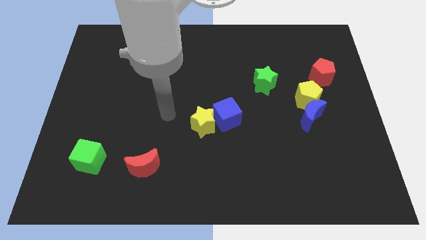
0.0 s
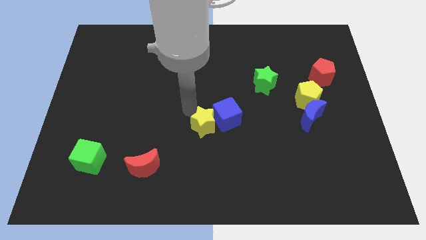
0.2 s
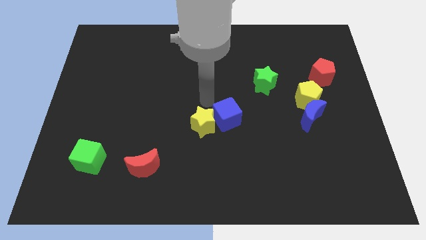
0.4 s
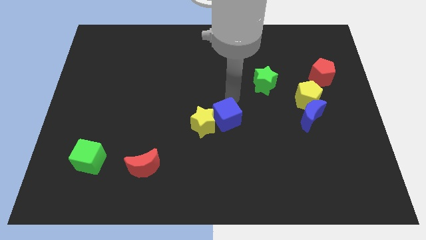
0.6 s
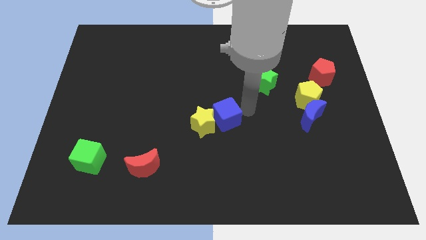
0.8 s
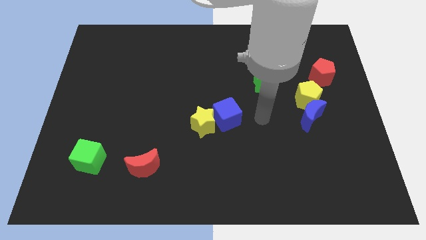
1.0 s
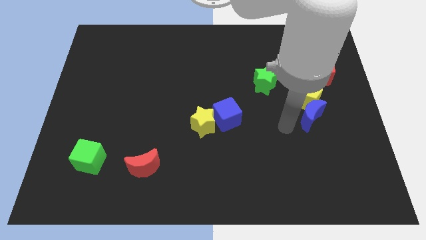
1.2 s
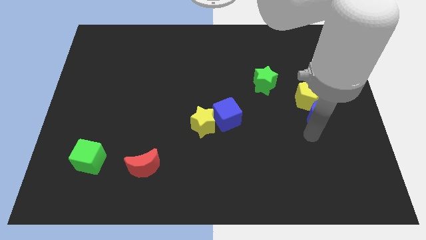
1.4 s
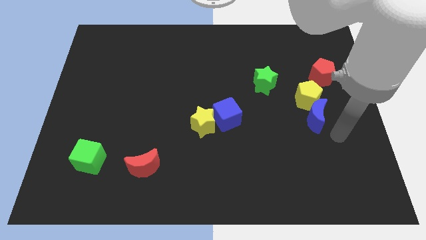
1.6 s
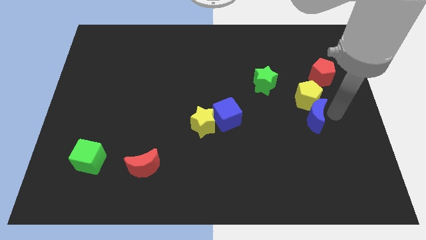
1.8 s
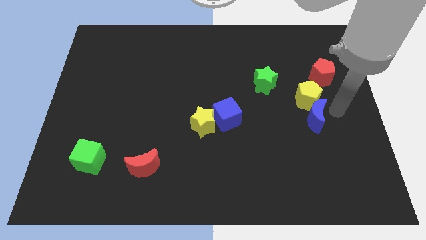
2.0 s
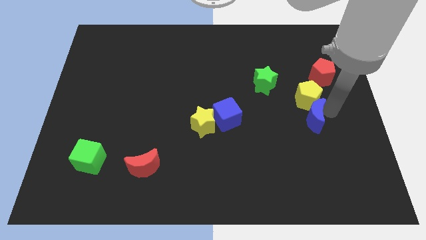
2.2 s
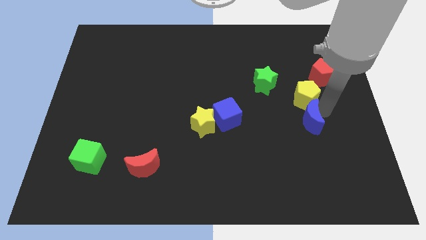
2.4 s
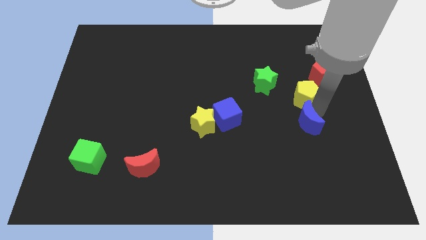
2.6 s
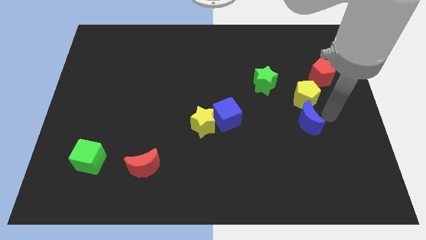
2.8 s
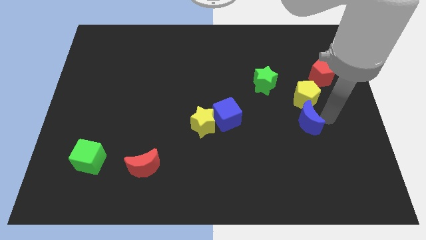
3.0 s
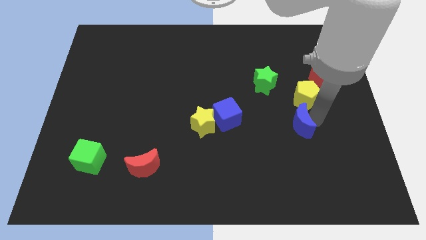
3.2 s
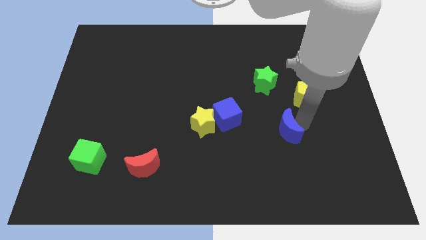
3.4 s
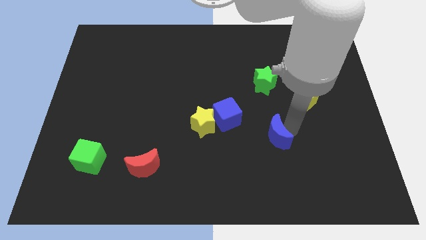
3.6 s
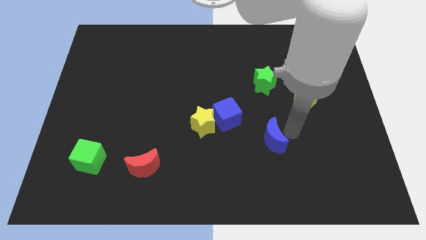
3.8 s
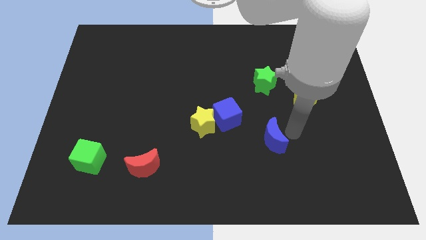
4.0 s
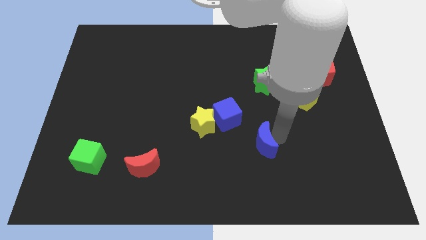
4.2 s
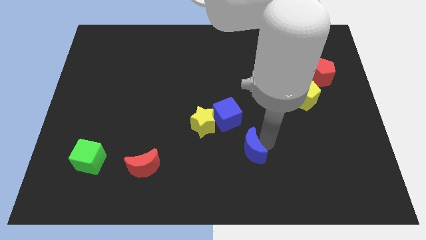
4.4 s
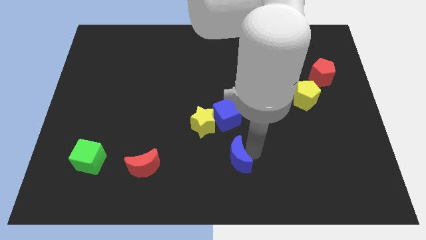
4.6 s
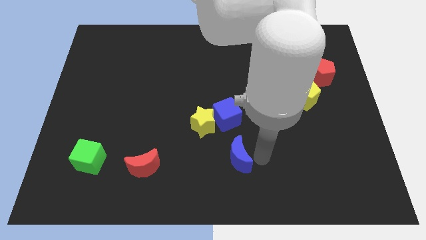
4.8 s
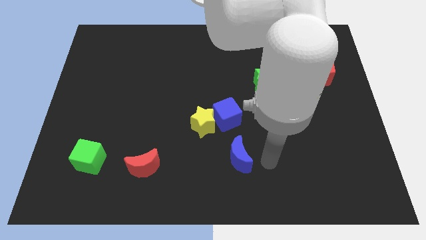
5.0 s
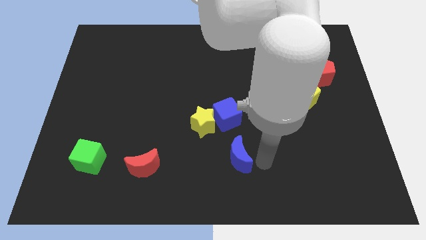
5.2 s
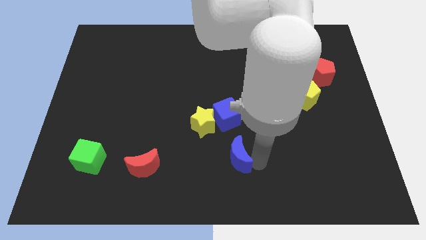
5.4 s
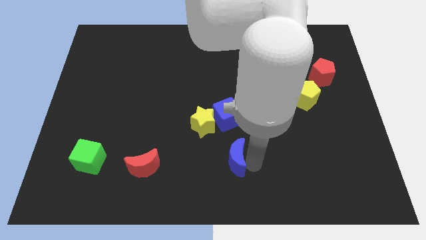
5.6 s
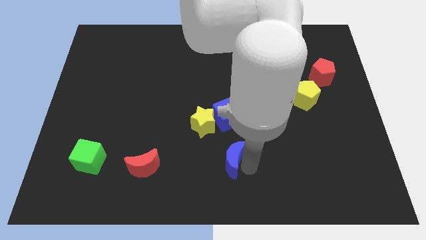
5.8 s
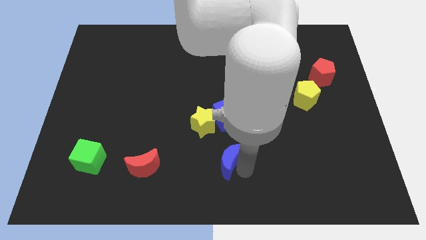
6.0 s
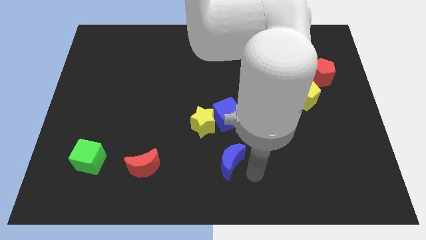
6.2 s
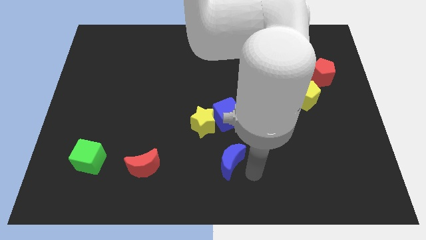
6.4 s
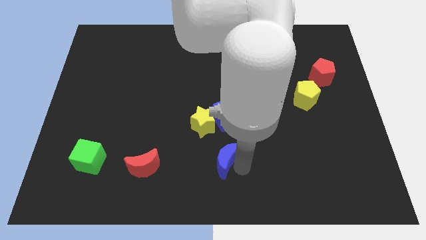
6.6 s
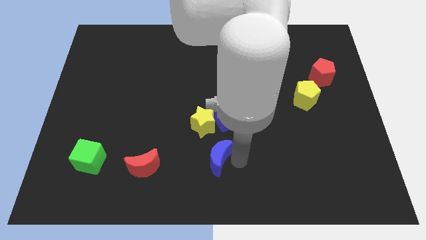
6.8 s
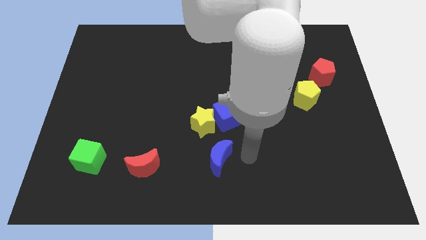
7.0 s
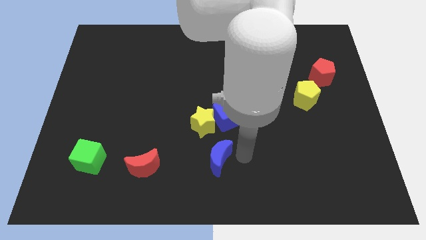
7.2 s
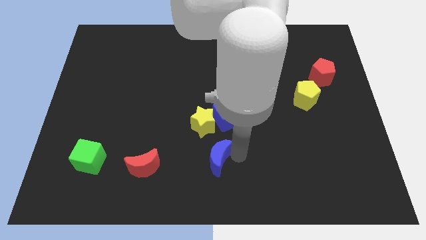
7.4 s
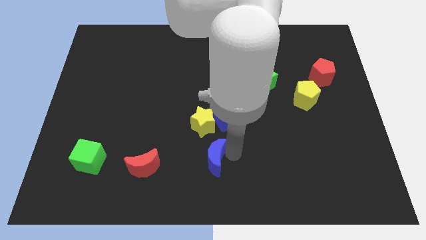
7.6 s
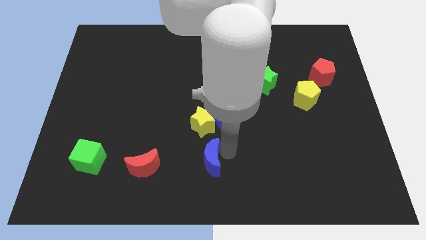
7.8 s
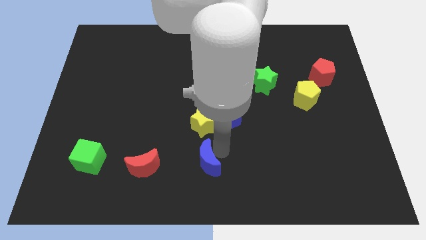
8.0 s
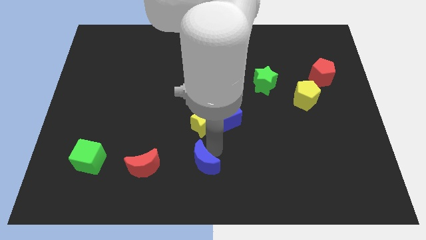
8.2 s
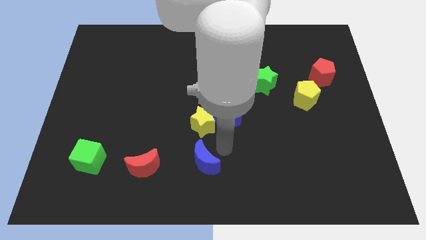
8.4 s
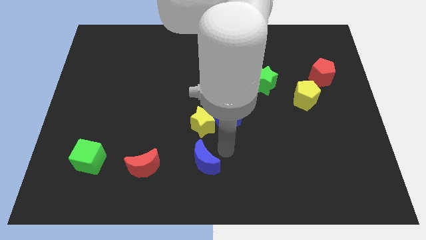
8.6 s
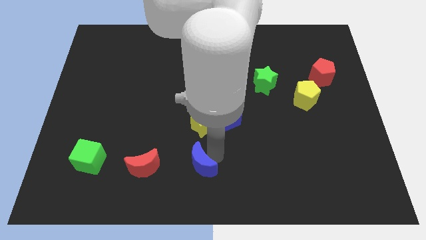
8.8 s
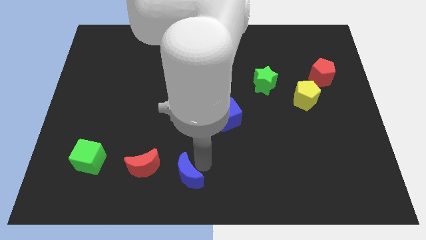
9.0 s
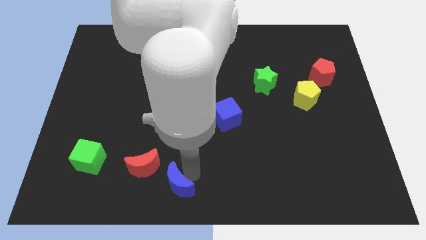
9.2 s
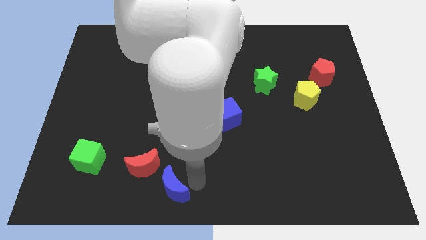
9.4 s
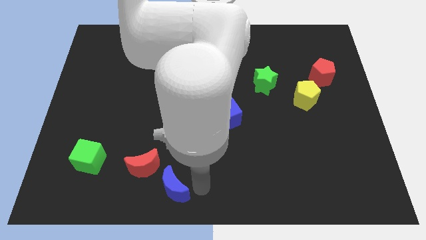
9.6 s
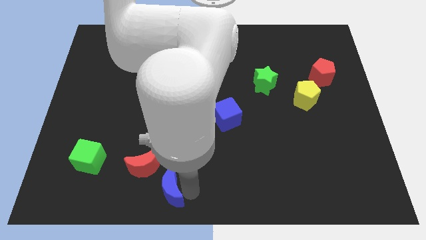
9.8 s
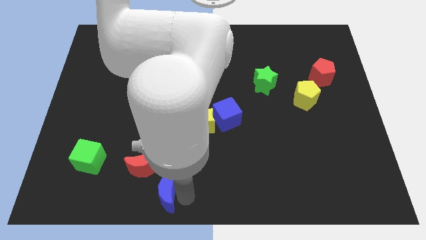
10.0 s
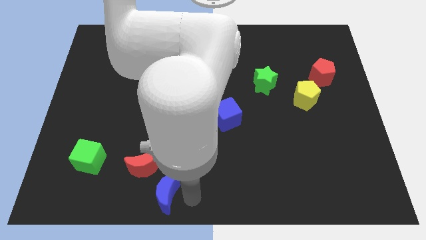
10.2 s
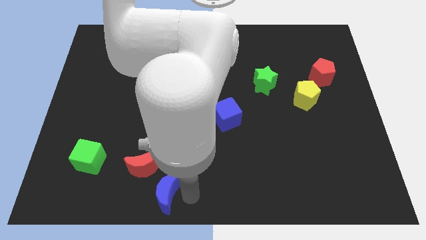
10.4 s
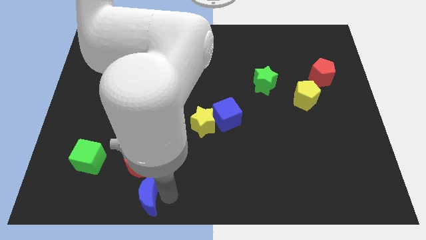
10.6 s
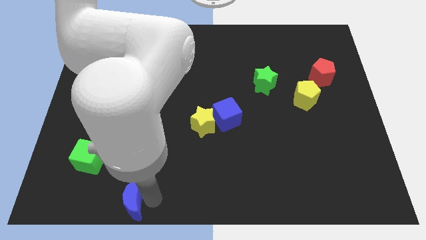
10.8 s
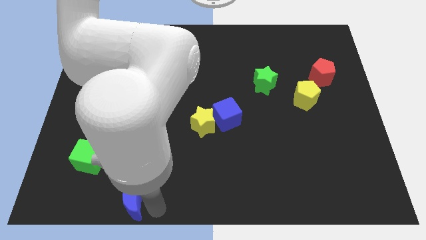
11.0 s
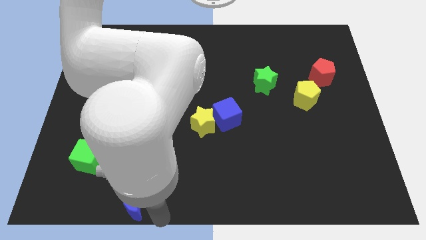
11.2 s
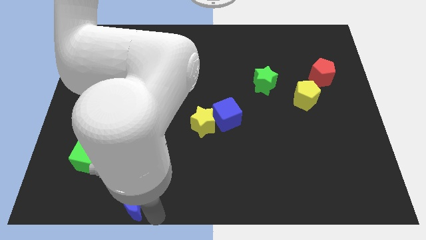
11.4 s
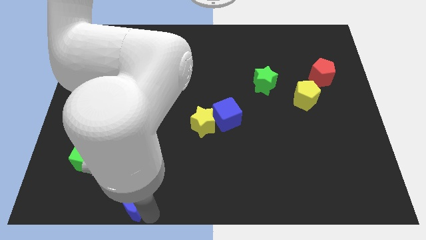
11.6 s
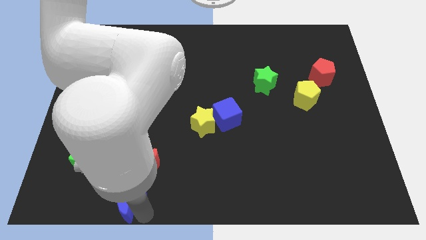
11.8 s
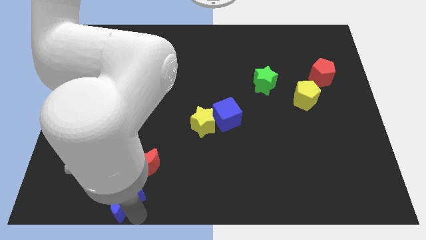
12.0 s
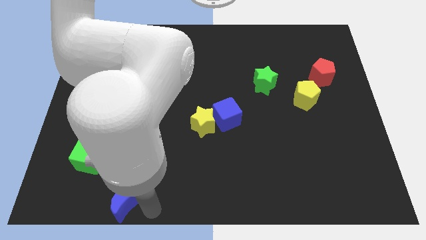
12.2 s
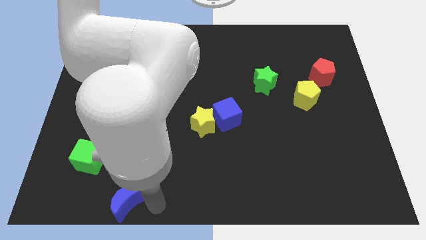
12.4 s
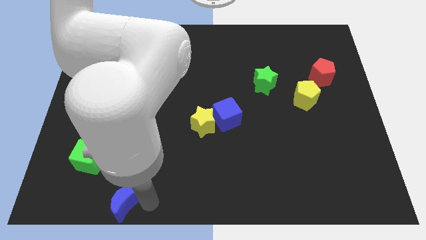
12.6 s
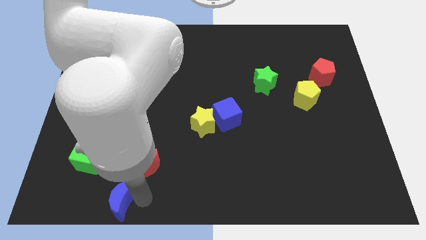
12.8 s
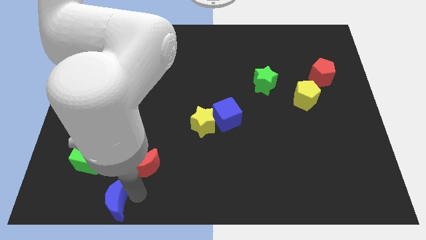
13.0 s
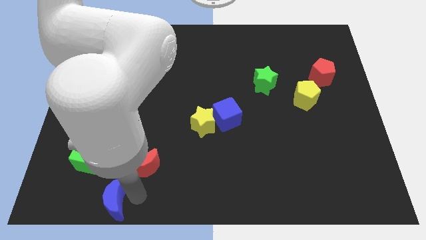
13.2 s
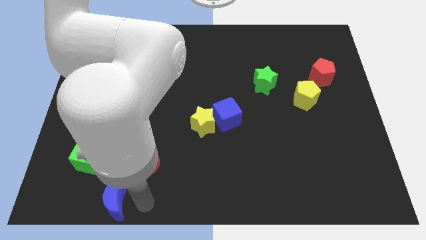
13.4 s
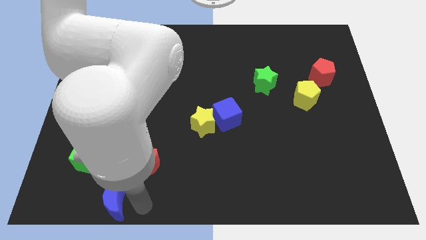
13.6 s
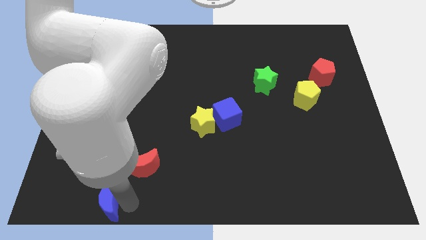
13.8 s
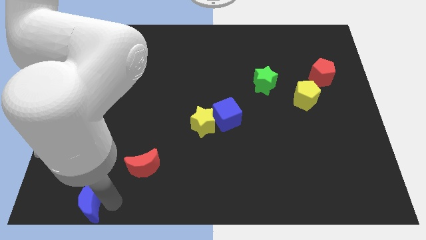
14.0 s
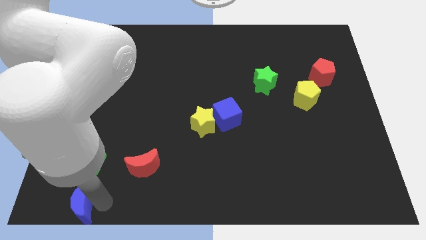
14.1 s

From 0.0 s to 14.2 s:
move the blue moon to the bottom left
